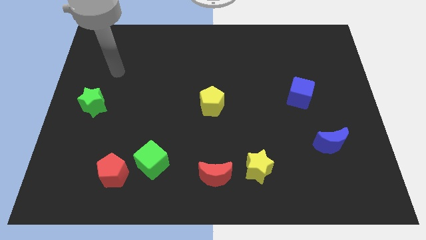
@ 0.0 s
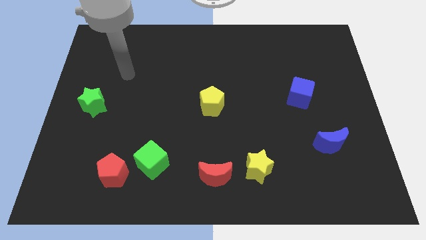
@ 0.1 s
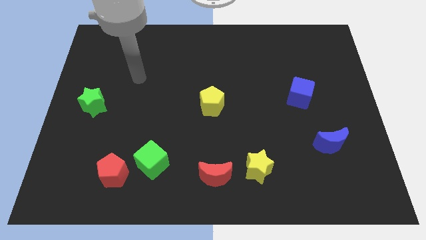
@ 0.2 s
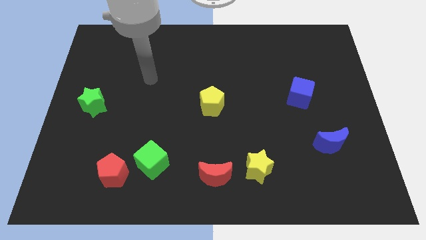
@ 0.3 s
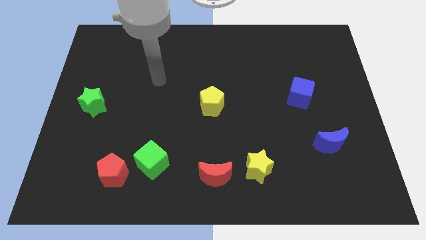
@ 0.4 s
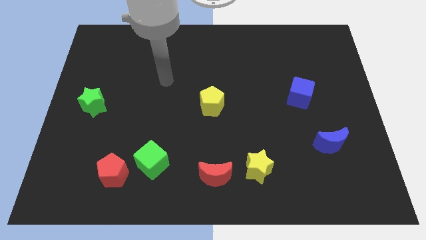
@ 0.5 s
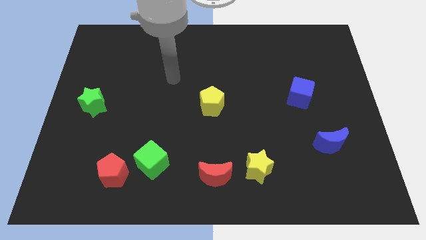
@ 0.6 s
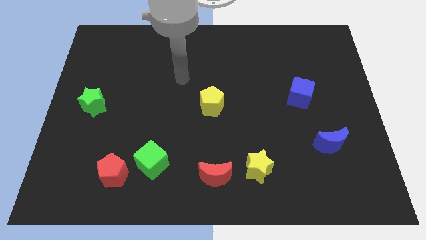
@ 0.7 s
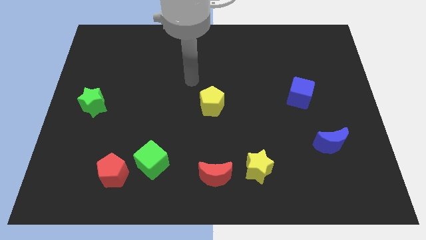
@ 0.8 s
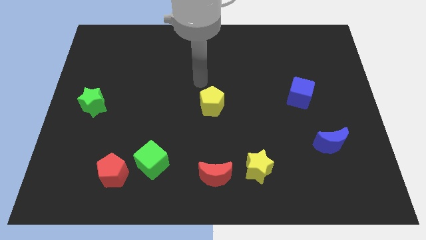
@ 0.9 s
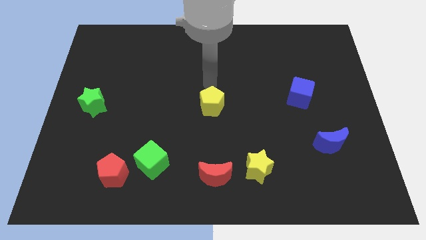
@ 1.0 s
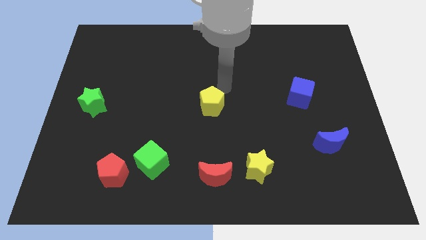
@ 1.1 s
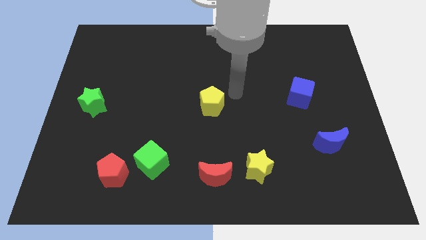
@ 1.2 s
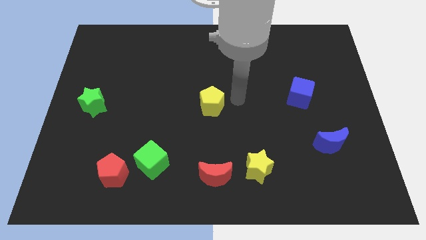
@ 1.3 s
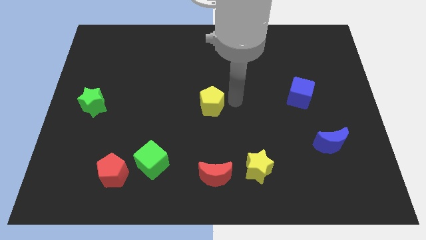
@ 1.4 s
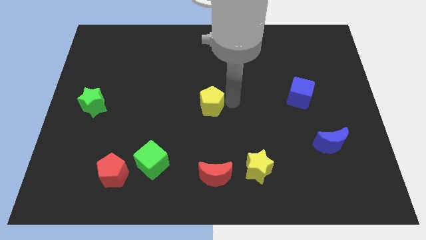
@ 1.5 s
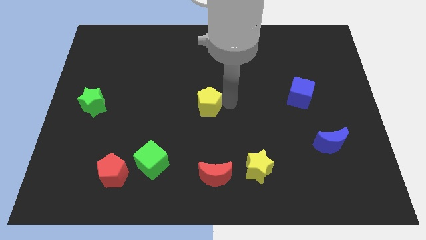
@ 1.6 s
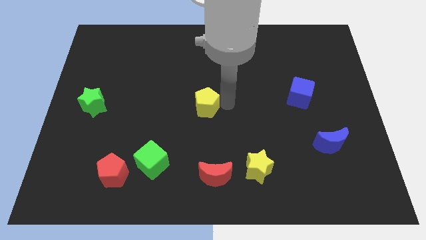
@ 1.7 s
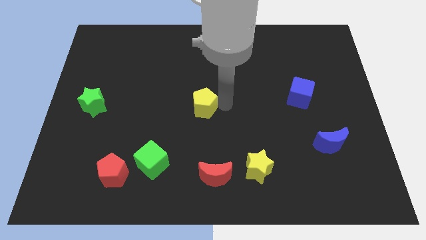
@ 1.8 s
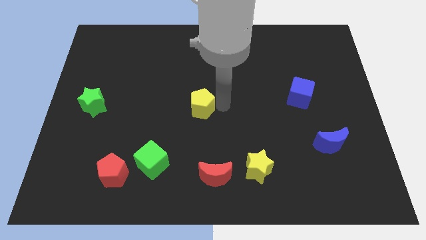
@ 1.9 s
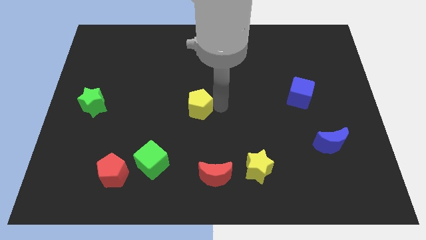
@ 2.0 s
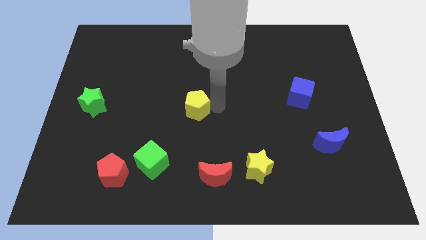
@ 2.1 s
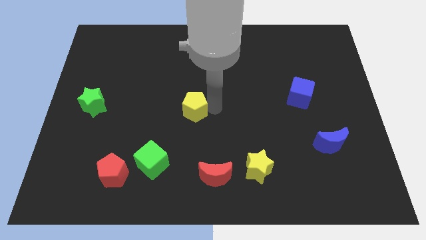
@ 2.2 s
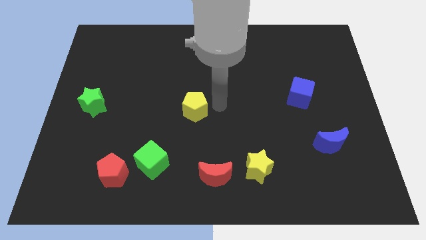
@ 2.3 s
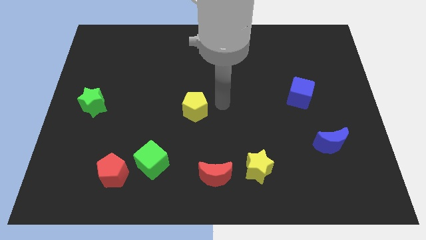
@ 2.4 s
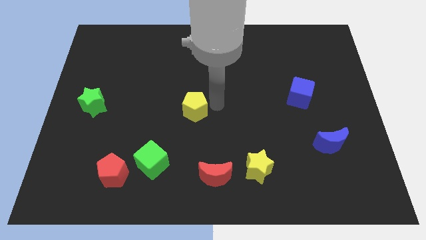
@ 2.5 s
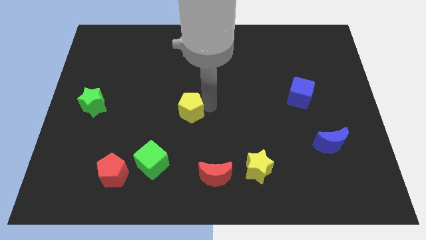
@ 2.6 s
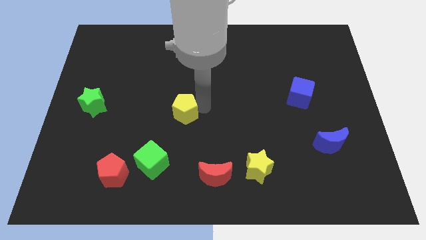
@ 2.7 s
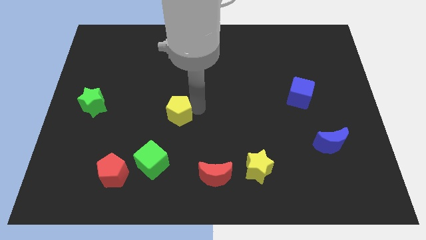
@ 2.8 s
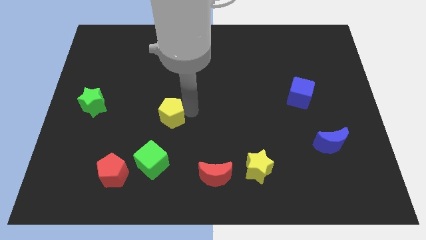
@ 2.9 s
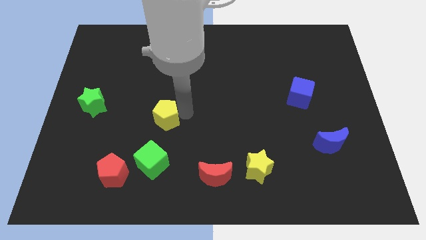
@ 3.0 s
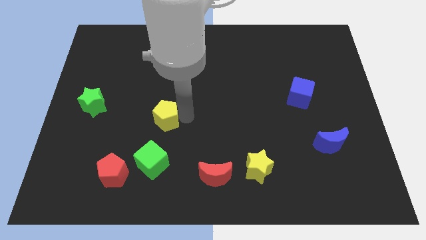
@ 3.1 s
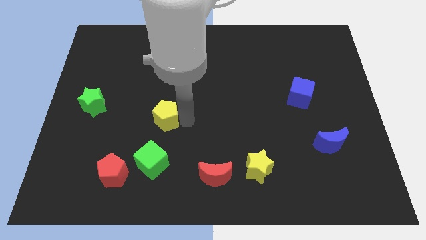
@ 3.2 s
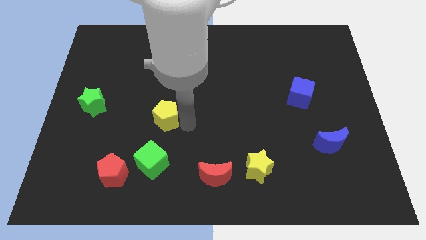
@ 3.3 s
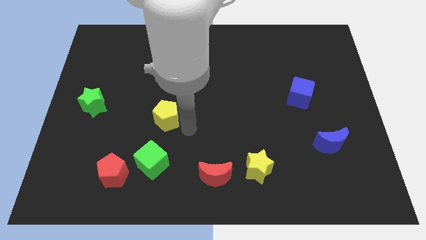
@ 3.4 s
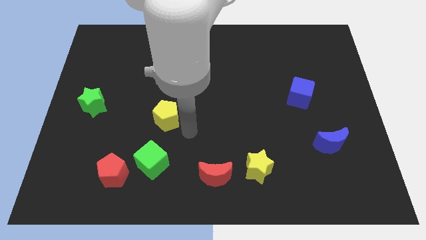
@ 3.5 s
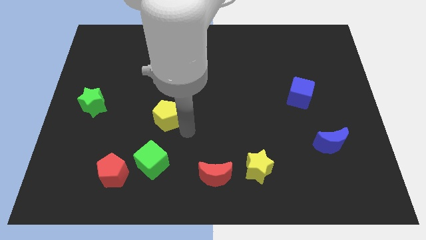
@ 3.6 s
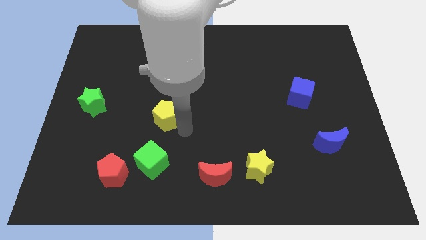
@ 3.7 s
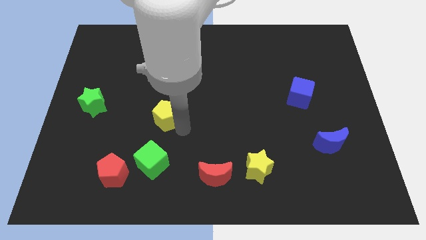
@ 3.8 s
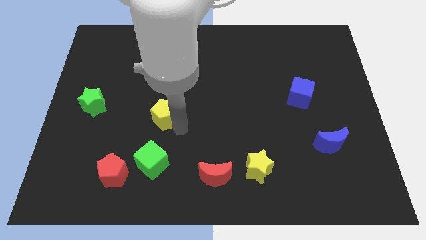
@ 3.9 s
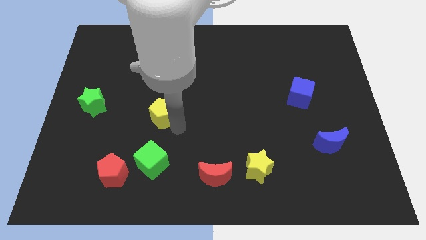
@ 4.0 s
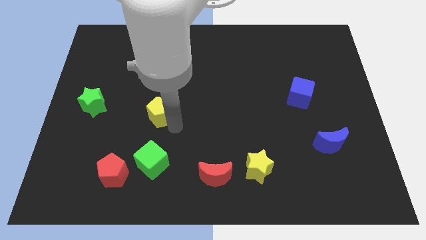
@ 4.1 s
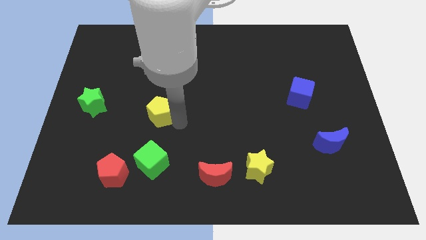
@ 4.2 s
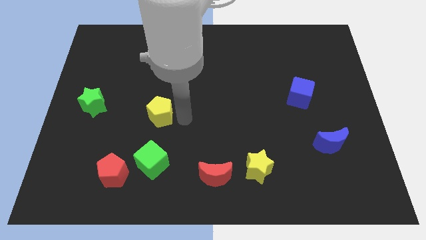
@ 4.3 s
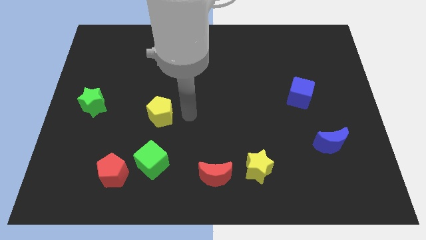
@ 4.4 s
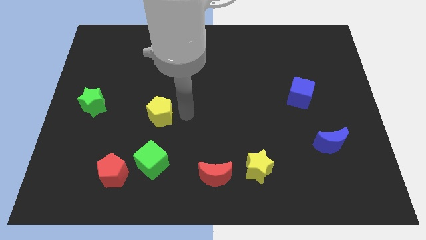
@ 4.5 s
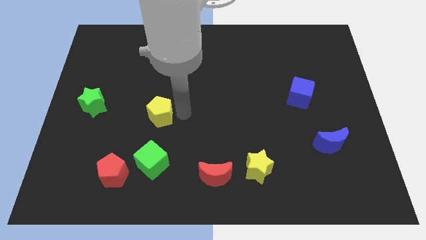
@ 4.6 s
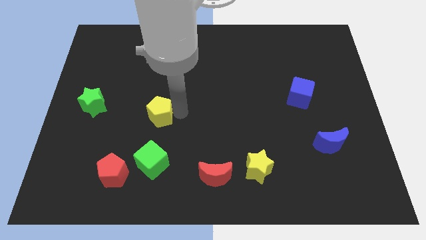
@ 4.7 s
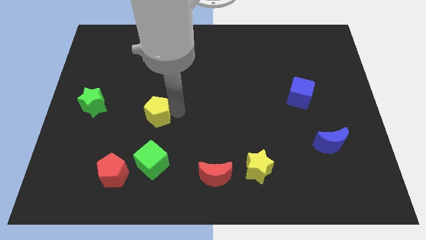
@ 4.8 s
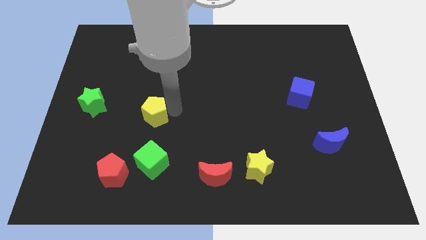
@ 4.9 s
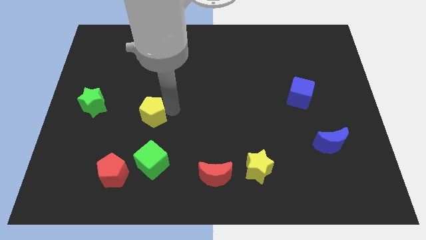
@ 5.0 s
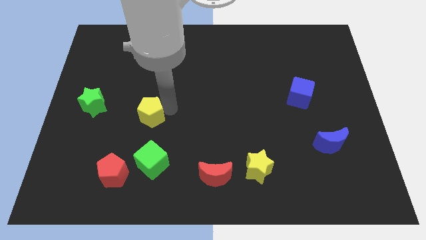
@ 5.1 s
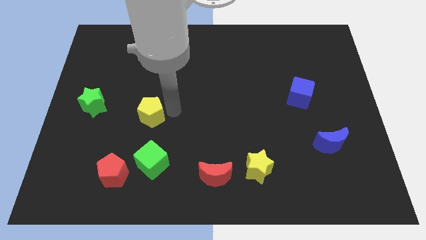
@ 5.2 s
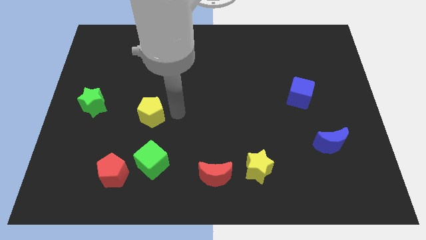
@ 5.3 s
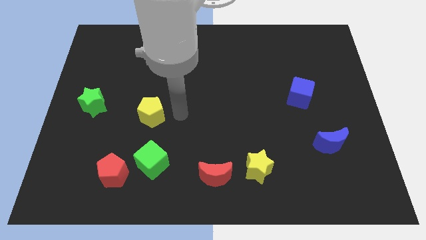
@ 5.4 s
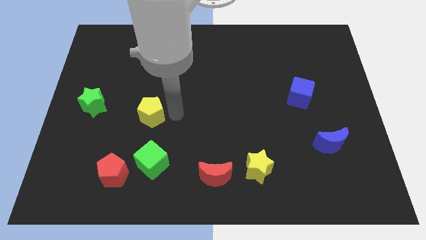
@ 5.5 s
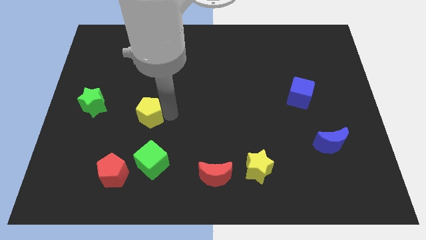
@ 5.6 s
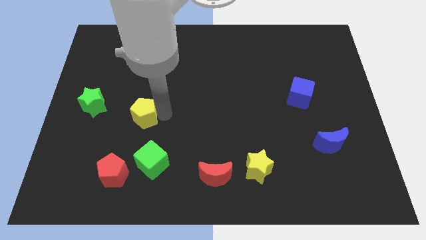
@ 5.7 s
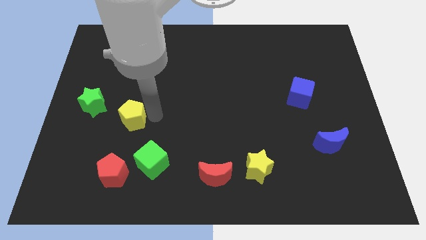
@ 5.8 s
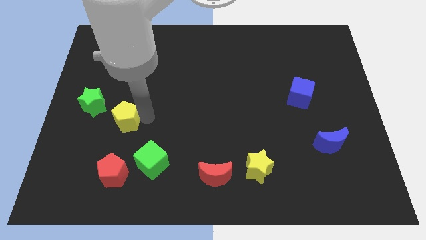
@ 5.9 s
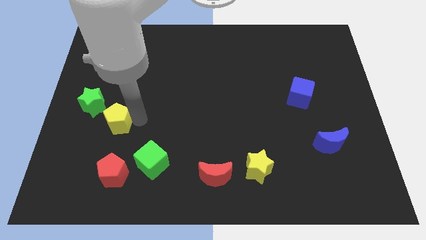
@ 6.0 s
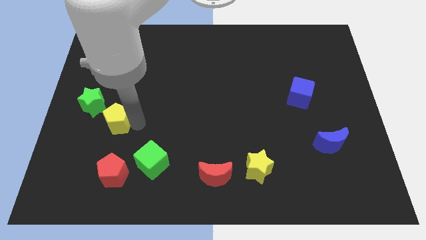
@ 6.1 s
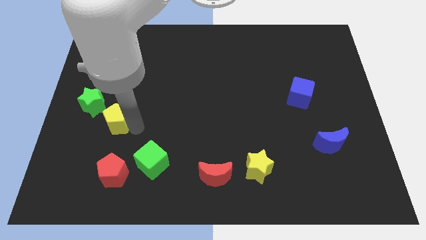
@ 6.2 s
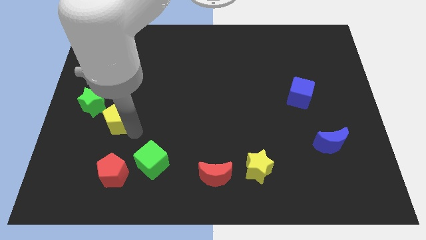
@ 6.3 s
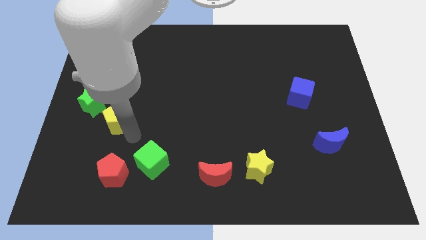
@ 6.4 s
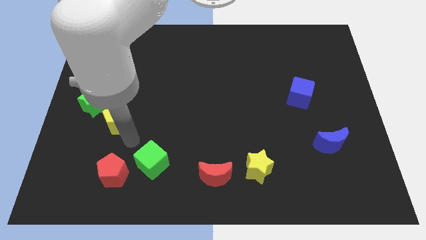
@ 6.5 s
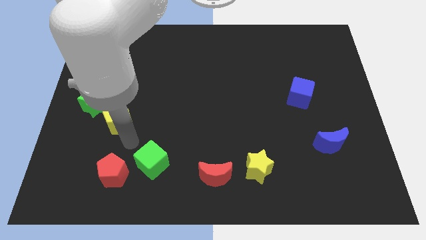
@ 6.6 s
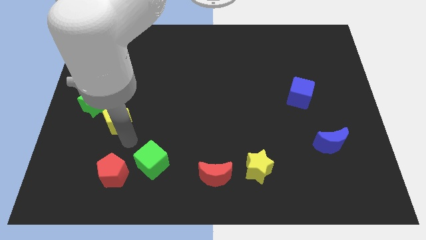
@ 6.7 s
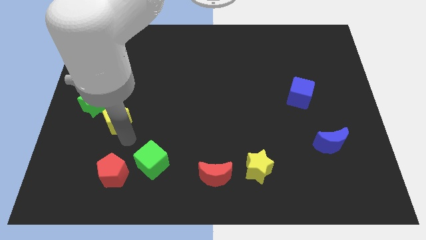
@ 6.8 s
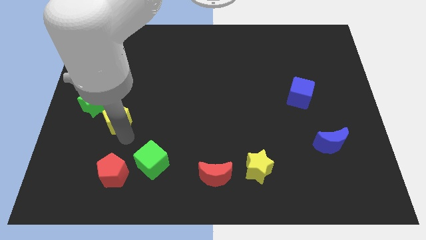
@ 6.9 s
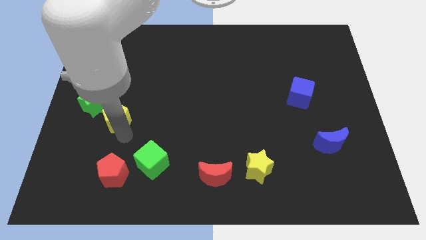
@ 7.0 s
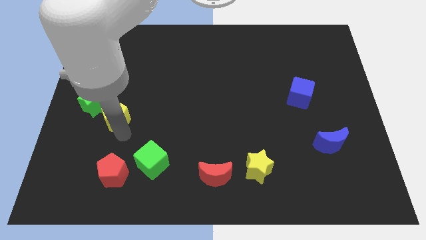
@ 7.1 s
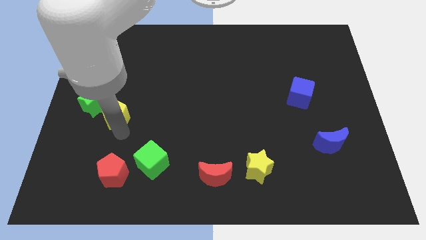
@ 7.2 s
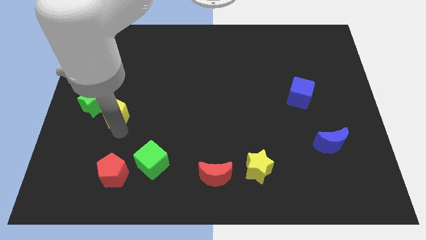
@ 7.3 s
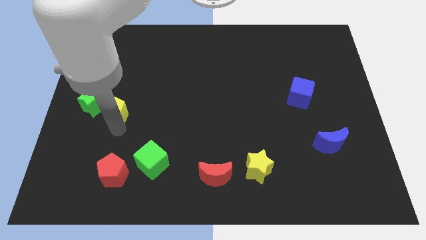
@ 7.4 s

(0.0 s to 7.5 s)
push the yellow pentagon next to the green star
